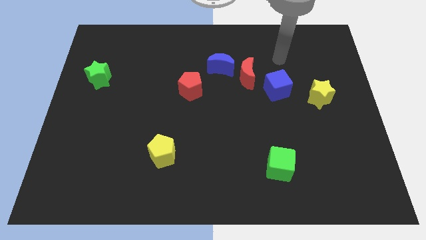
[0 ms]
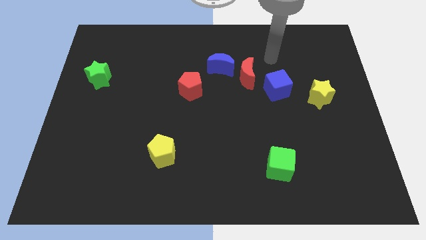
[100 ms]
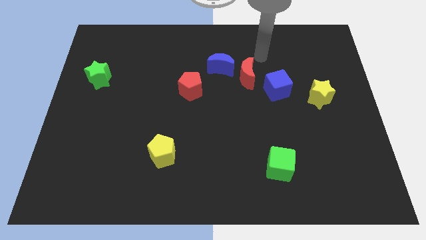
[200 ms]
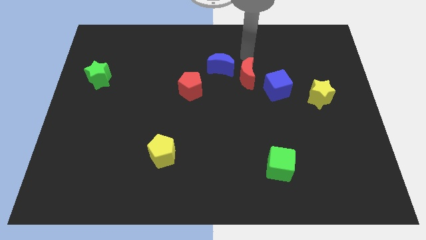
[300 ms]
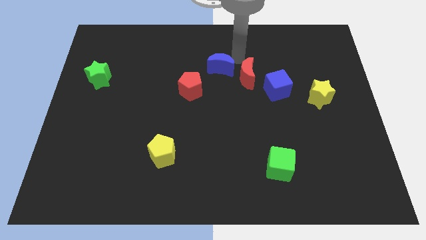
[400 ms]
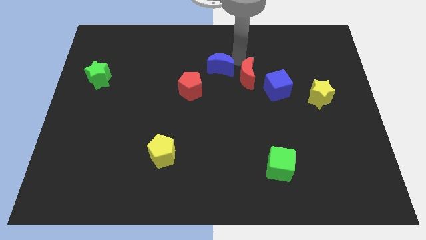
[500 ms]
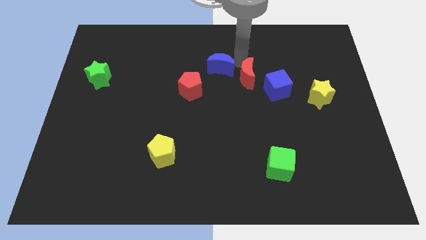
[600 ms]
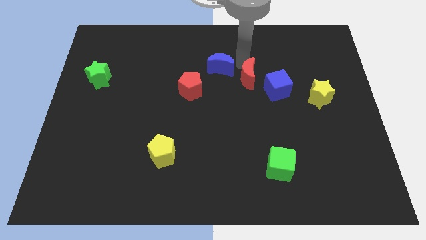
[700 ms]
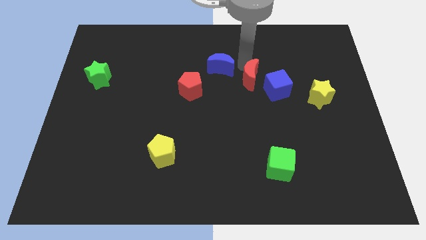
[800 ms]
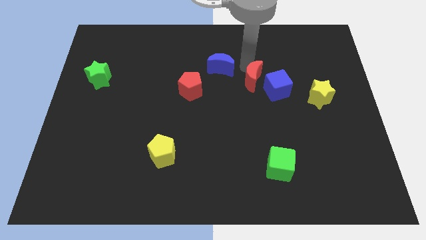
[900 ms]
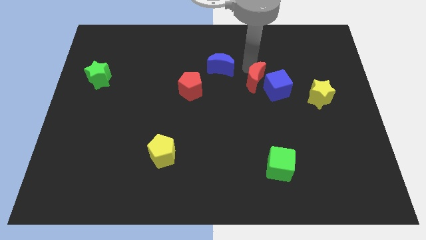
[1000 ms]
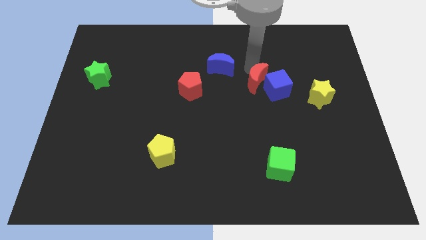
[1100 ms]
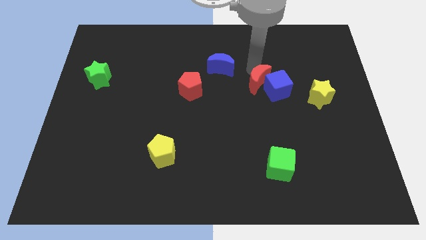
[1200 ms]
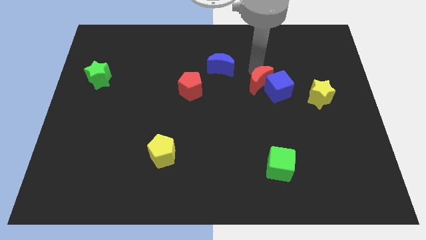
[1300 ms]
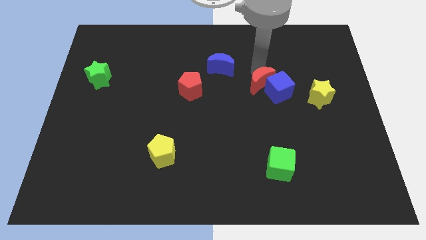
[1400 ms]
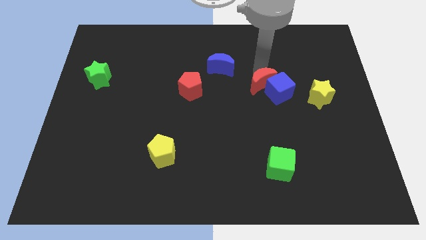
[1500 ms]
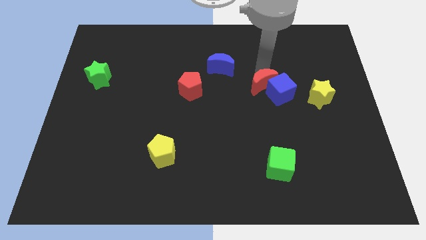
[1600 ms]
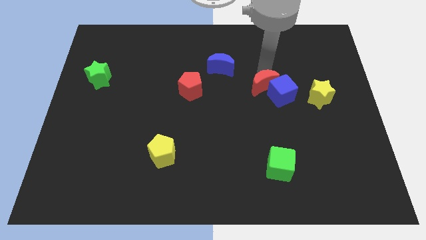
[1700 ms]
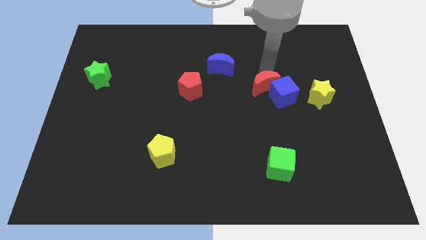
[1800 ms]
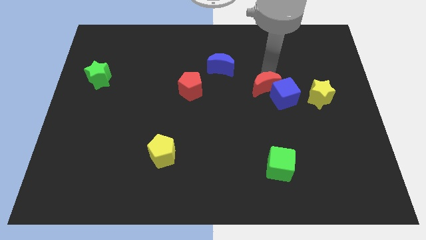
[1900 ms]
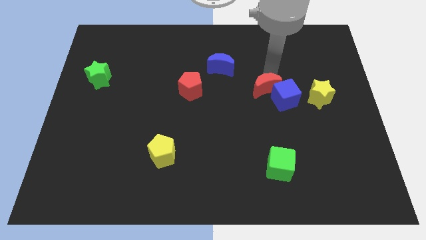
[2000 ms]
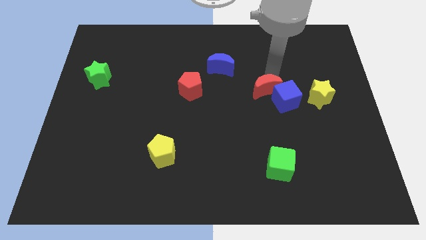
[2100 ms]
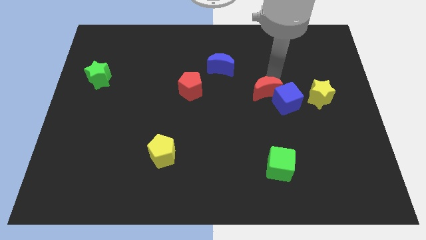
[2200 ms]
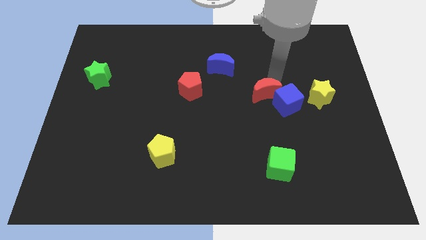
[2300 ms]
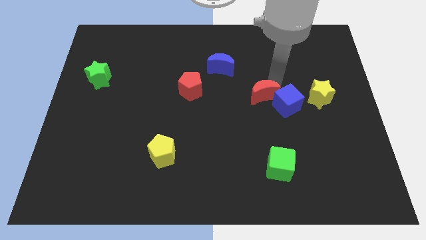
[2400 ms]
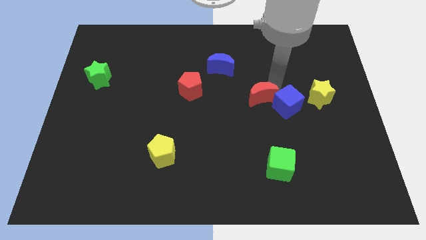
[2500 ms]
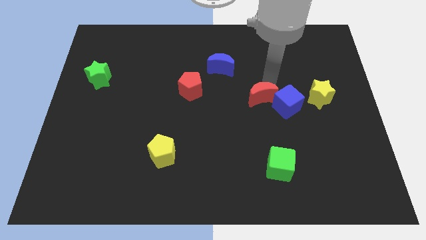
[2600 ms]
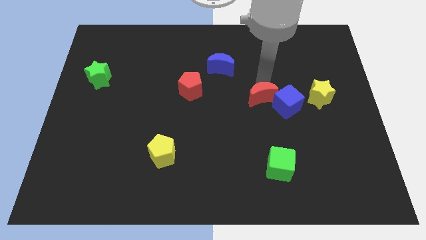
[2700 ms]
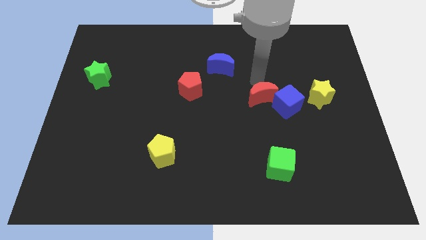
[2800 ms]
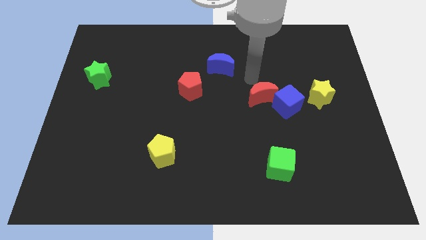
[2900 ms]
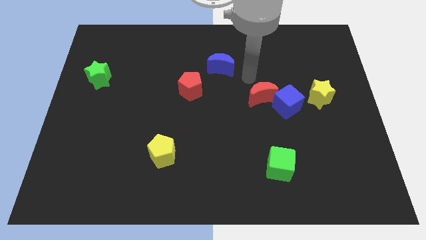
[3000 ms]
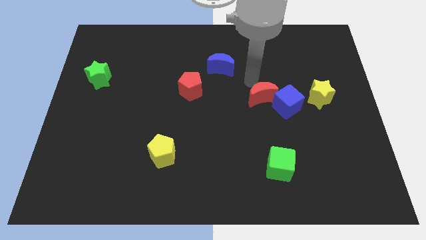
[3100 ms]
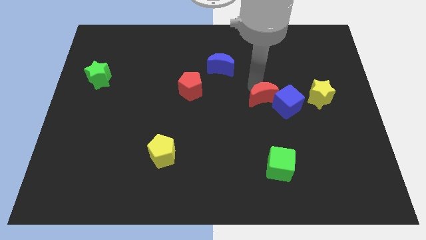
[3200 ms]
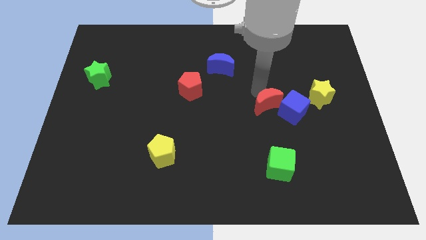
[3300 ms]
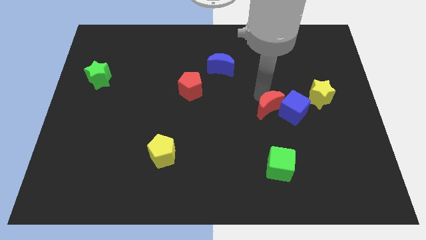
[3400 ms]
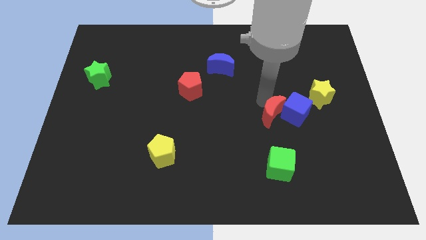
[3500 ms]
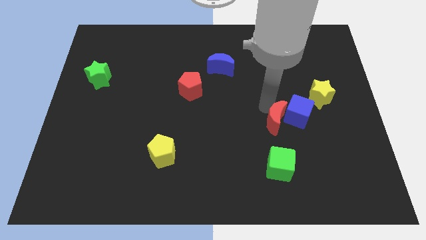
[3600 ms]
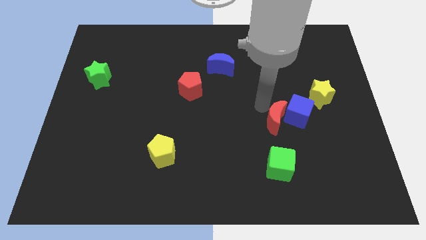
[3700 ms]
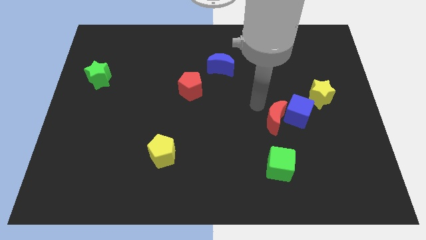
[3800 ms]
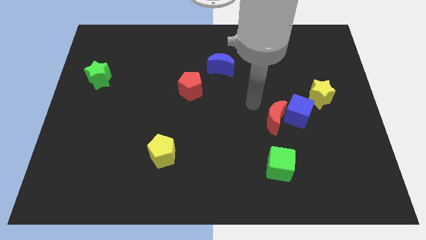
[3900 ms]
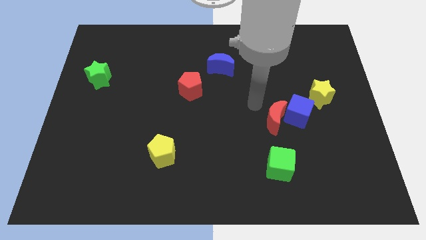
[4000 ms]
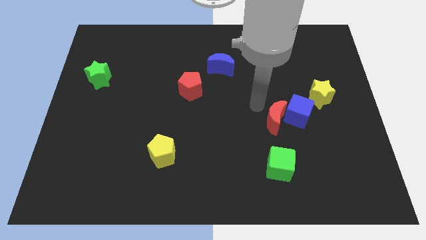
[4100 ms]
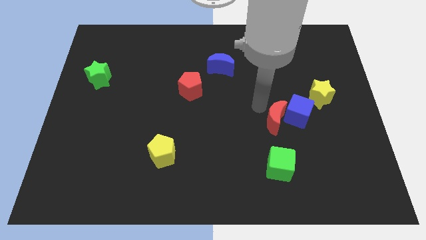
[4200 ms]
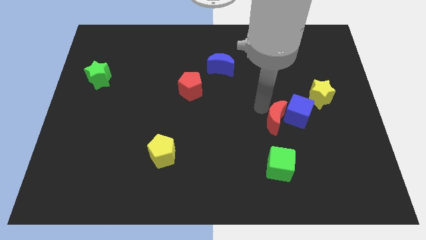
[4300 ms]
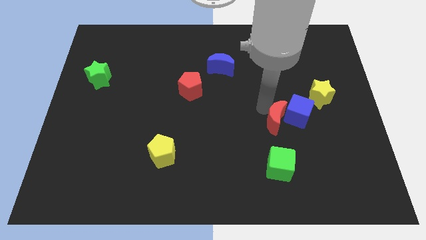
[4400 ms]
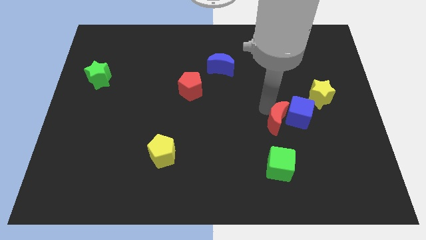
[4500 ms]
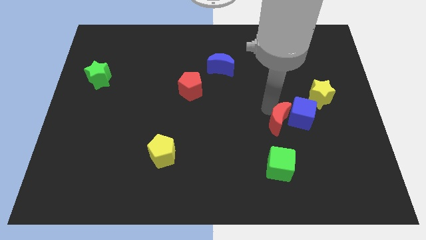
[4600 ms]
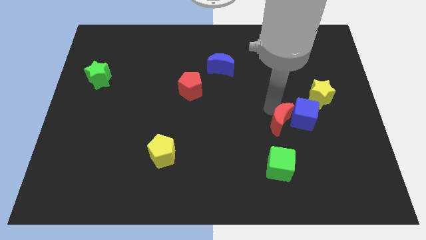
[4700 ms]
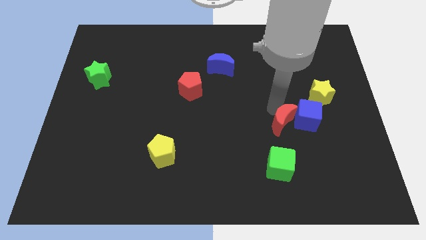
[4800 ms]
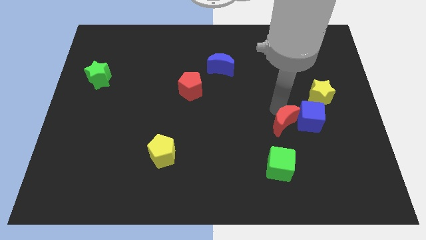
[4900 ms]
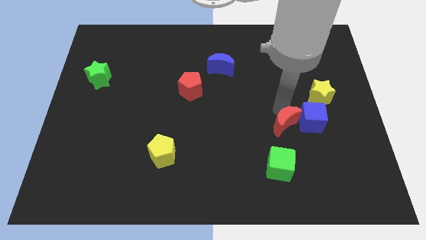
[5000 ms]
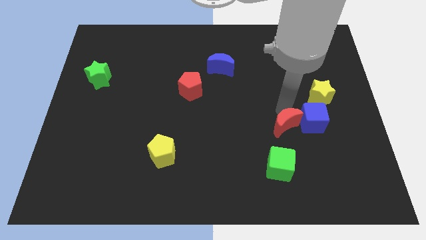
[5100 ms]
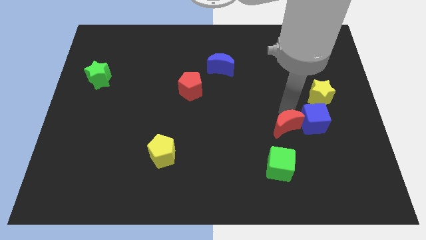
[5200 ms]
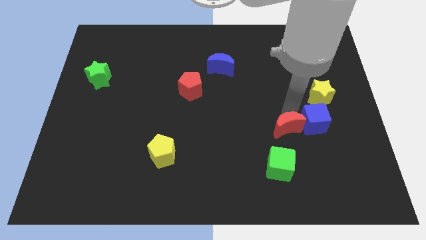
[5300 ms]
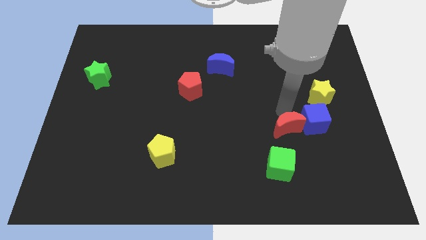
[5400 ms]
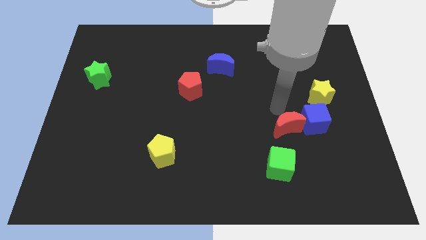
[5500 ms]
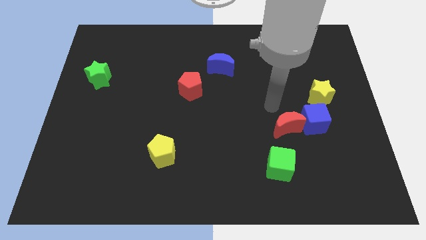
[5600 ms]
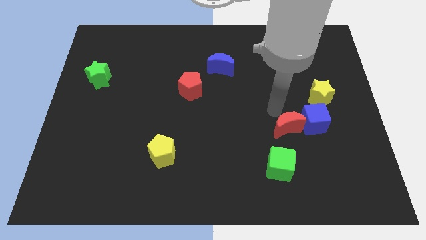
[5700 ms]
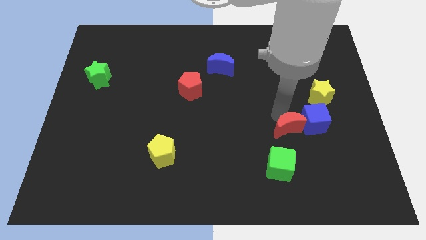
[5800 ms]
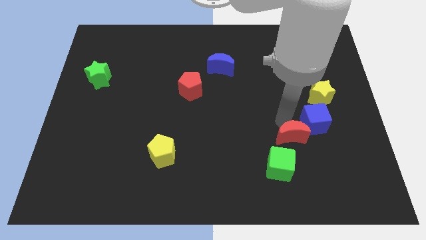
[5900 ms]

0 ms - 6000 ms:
move the red moon diagonally up and to the right of the green cube
